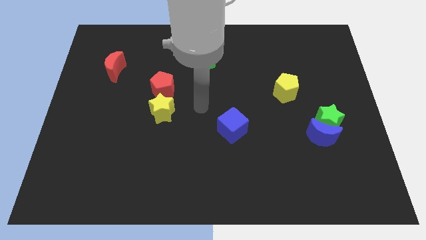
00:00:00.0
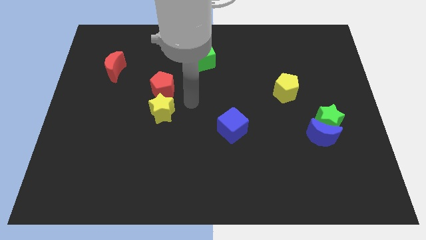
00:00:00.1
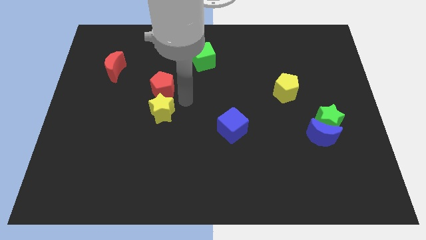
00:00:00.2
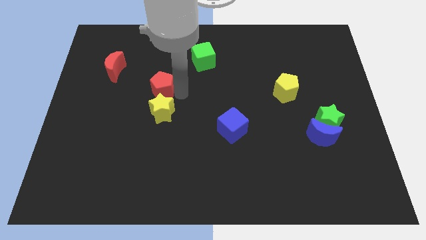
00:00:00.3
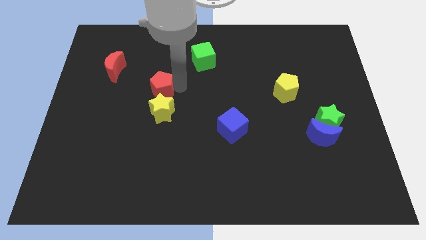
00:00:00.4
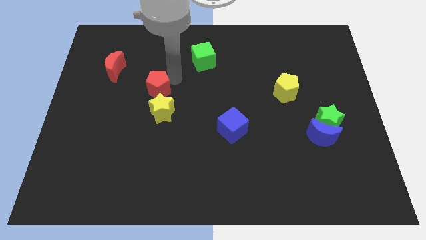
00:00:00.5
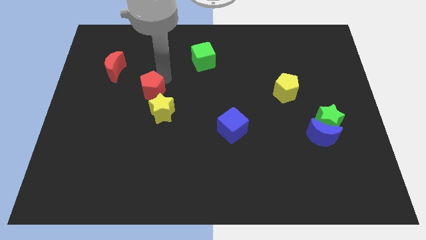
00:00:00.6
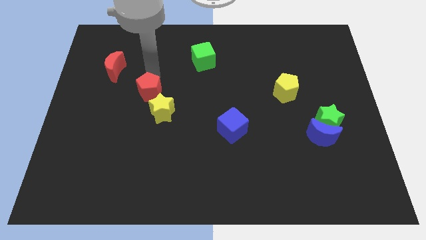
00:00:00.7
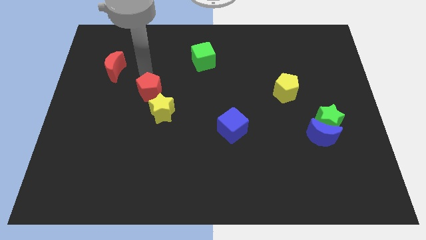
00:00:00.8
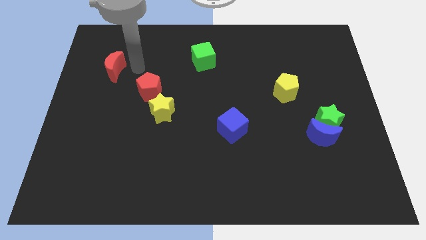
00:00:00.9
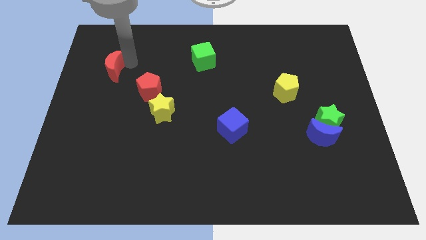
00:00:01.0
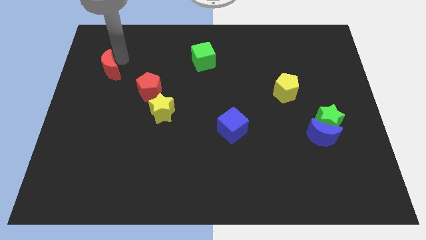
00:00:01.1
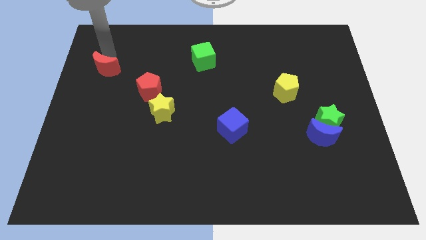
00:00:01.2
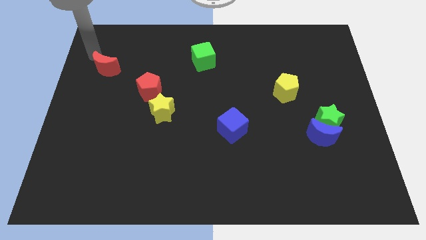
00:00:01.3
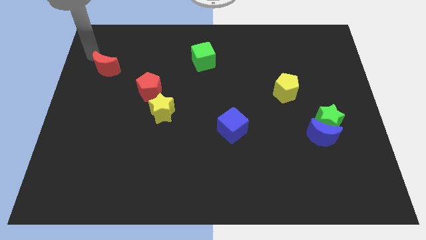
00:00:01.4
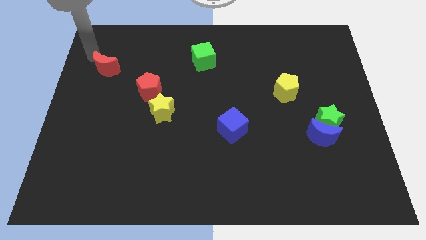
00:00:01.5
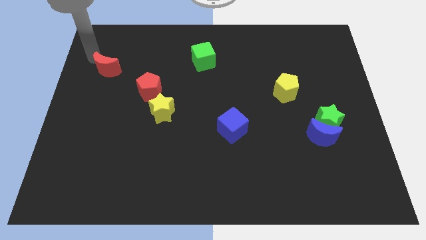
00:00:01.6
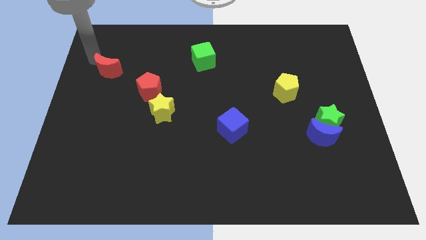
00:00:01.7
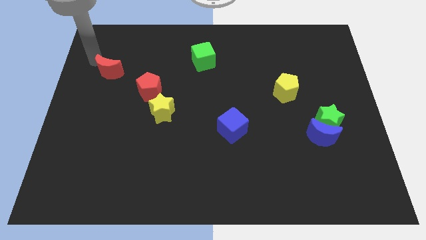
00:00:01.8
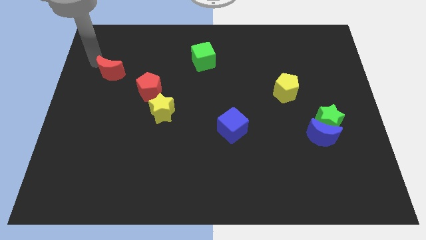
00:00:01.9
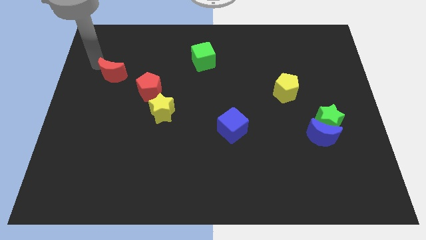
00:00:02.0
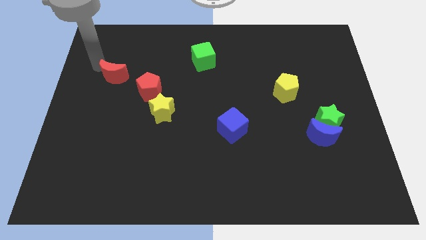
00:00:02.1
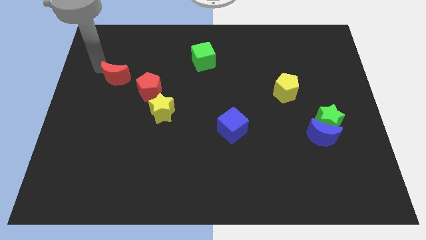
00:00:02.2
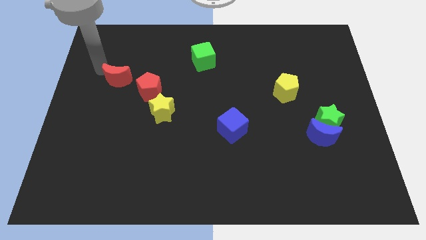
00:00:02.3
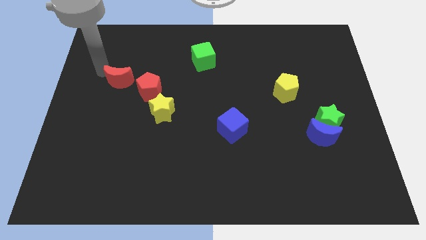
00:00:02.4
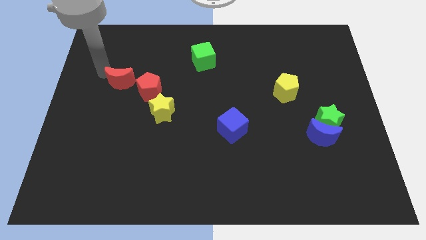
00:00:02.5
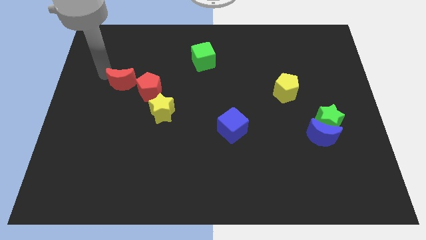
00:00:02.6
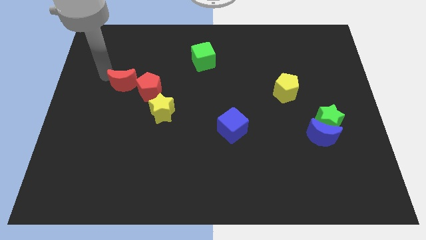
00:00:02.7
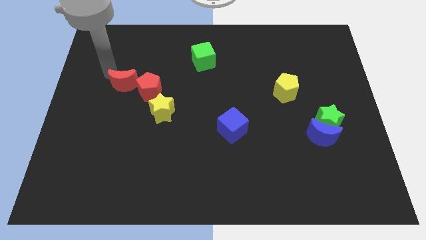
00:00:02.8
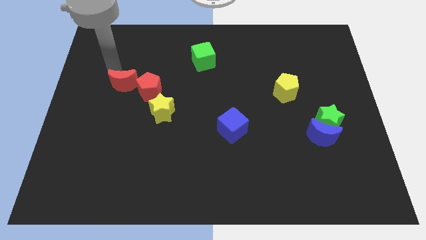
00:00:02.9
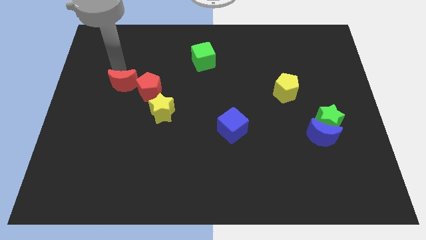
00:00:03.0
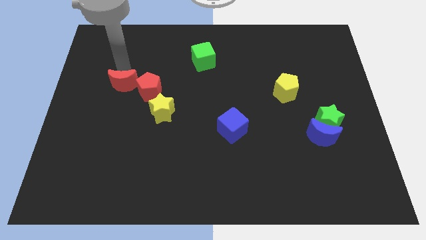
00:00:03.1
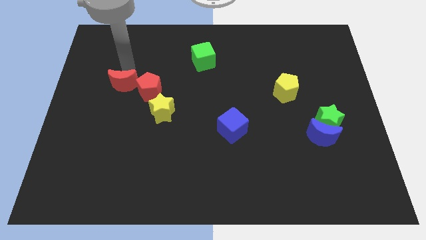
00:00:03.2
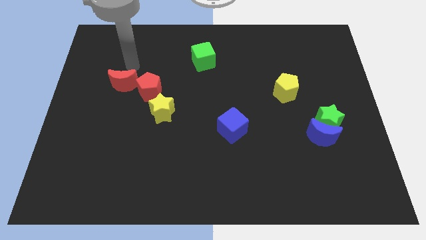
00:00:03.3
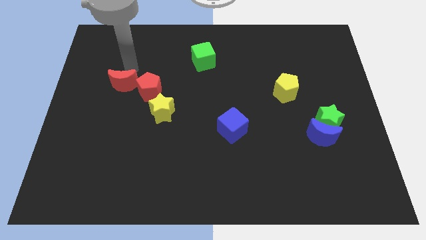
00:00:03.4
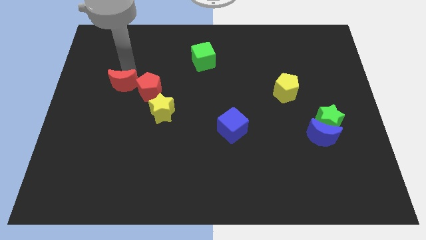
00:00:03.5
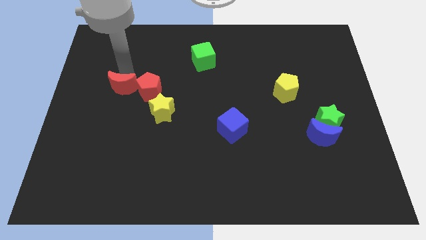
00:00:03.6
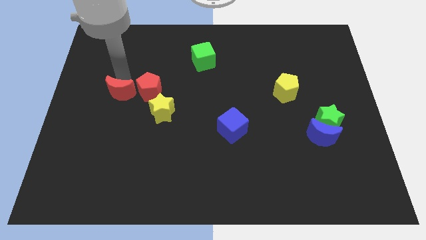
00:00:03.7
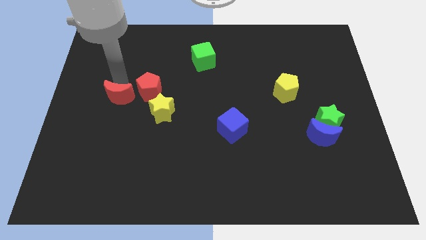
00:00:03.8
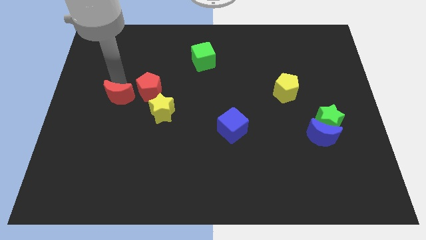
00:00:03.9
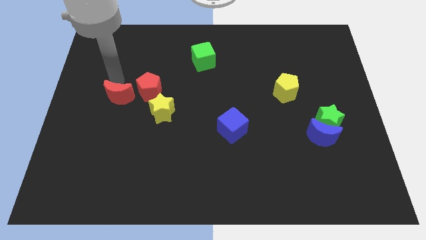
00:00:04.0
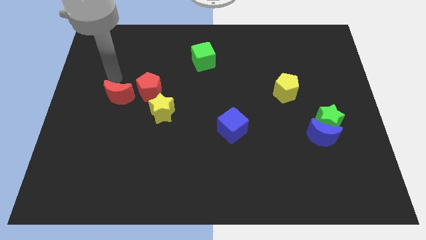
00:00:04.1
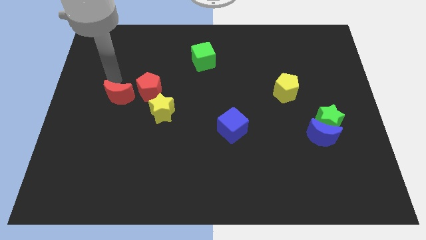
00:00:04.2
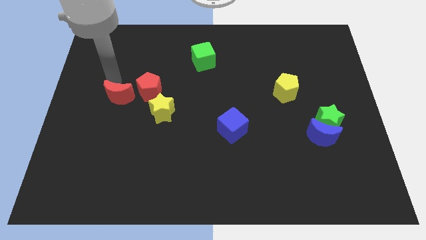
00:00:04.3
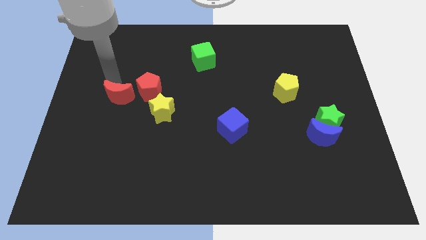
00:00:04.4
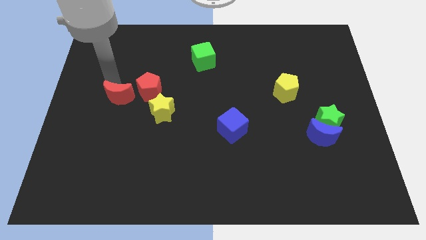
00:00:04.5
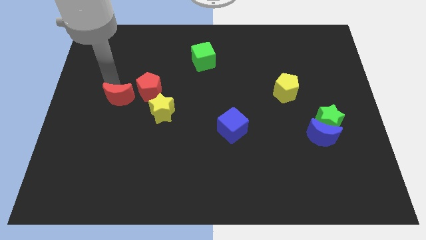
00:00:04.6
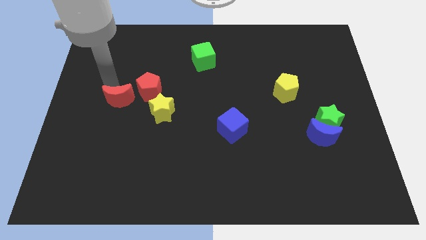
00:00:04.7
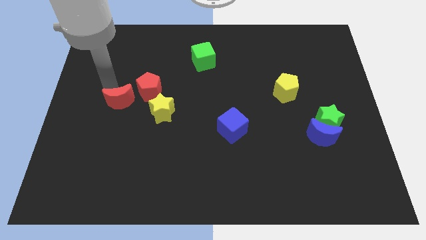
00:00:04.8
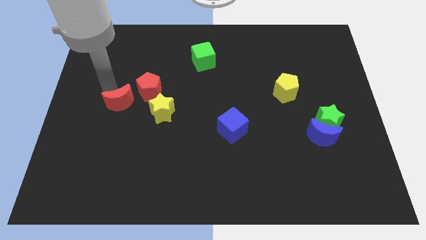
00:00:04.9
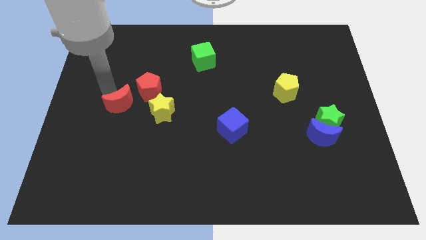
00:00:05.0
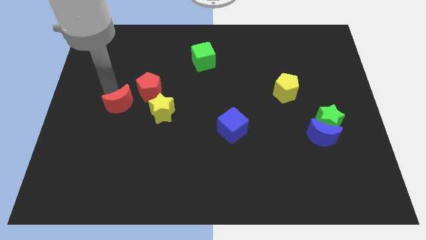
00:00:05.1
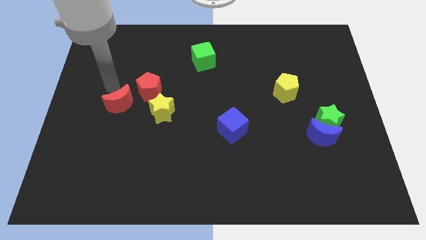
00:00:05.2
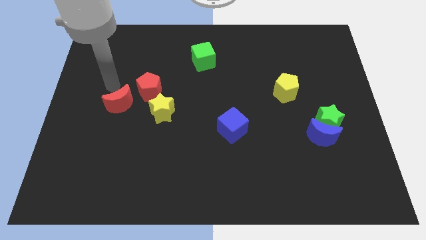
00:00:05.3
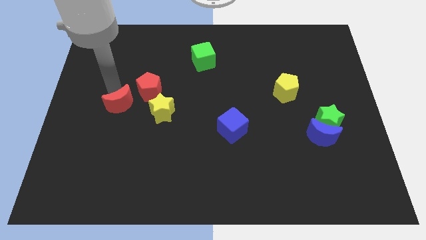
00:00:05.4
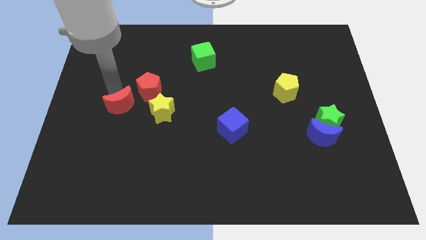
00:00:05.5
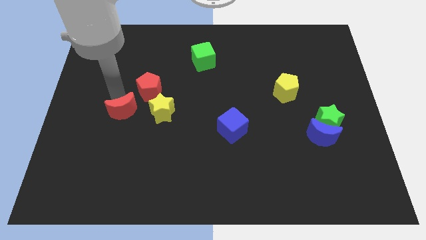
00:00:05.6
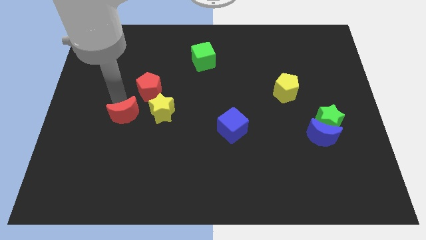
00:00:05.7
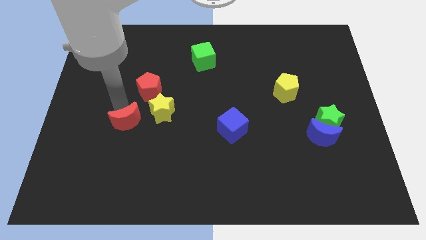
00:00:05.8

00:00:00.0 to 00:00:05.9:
push the red moon to the bottom left of the yellow star

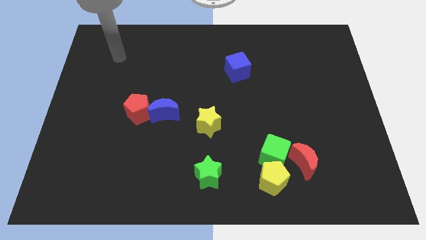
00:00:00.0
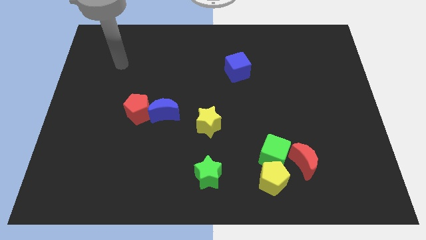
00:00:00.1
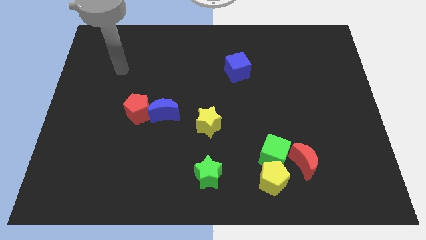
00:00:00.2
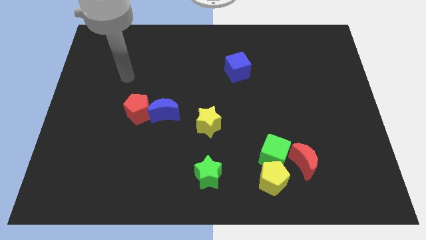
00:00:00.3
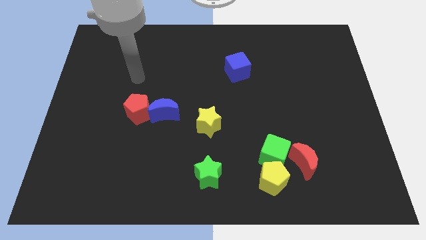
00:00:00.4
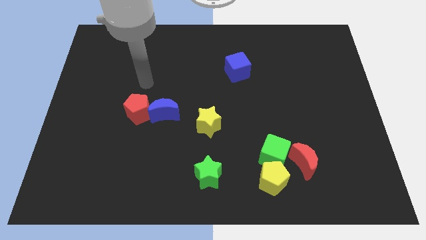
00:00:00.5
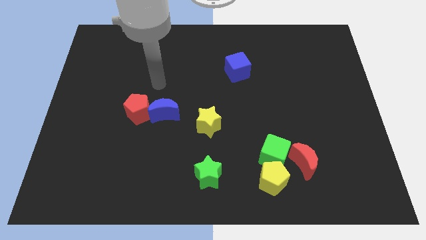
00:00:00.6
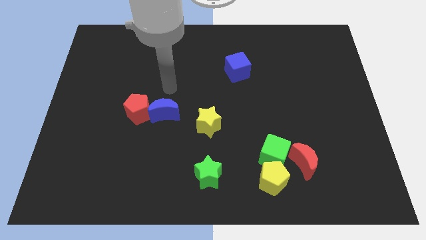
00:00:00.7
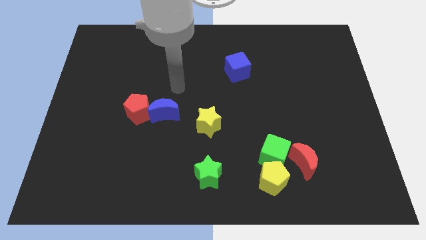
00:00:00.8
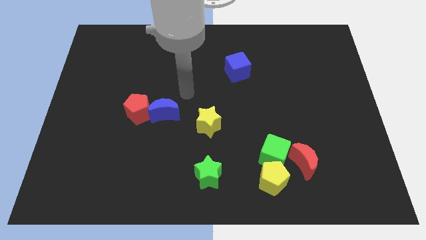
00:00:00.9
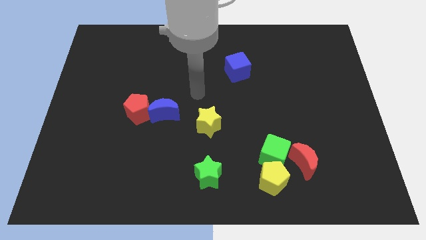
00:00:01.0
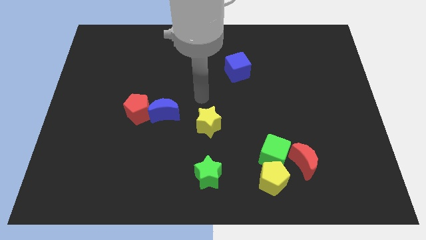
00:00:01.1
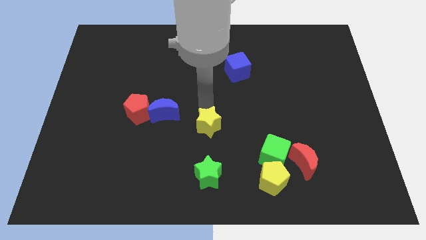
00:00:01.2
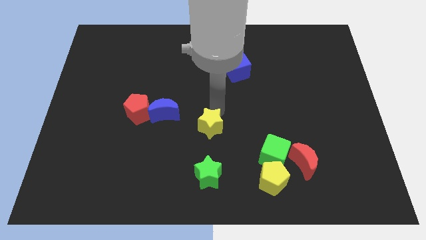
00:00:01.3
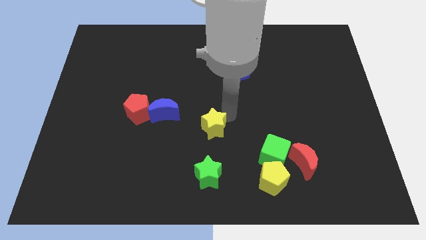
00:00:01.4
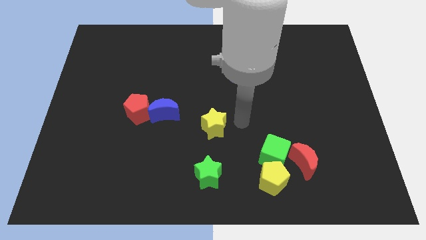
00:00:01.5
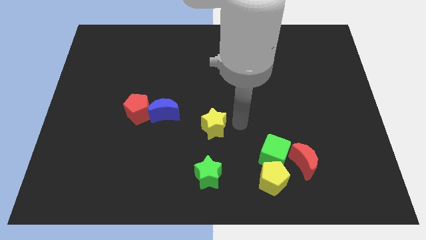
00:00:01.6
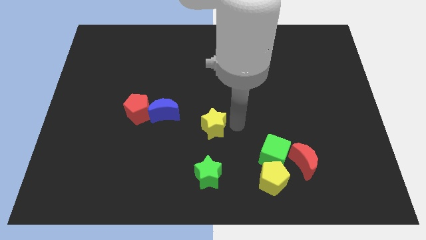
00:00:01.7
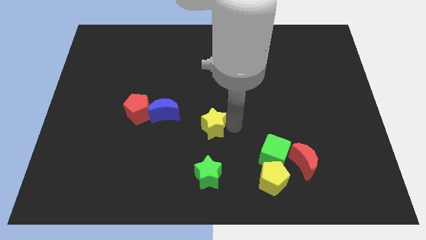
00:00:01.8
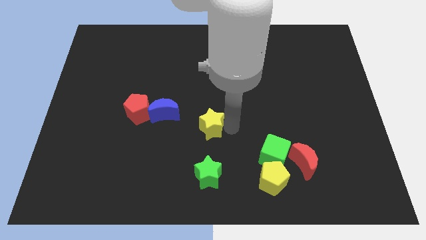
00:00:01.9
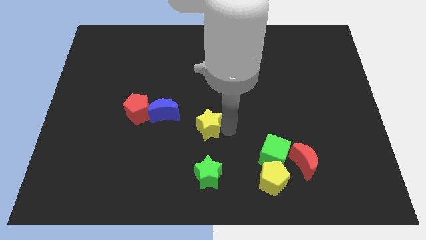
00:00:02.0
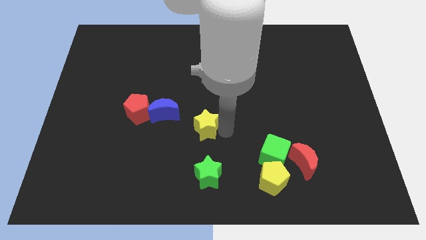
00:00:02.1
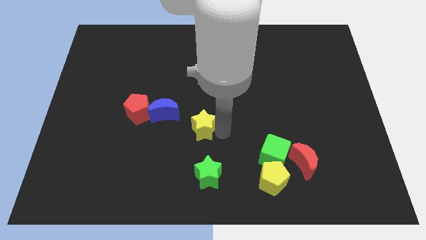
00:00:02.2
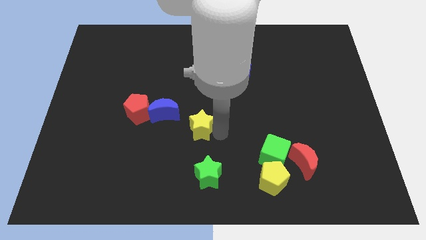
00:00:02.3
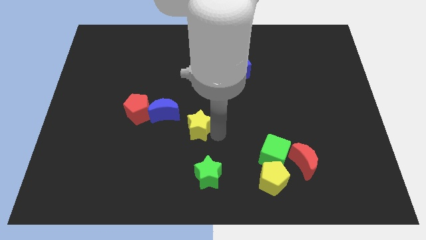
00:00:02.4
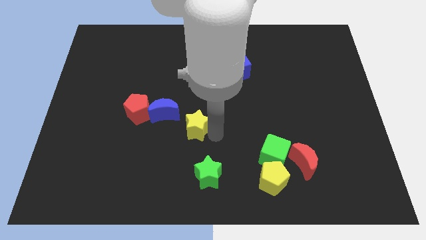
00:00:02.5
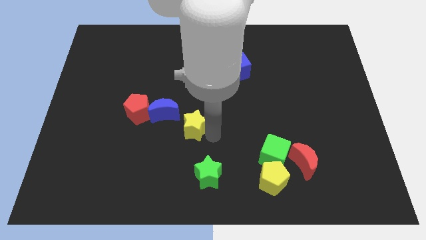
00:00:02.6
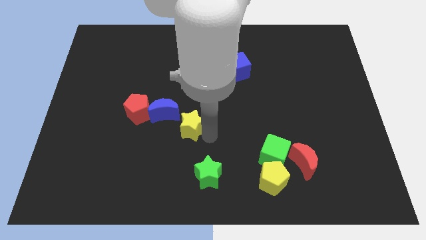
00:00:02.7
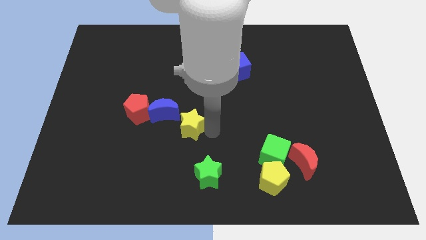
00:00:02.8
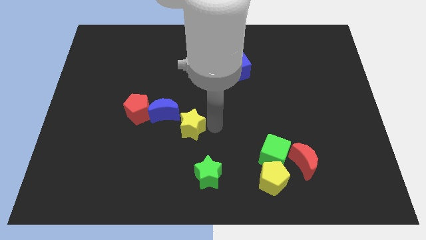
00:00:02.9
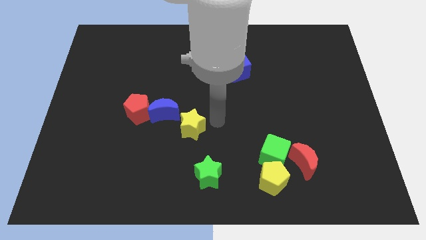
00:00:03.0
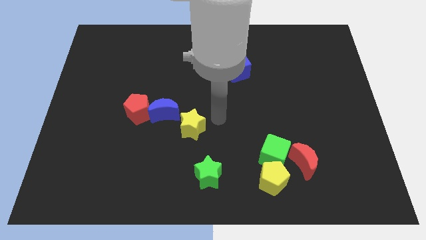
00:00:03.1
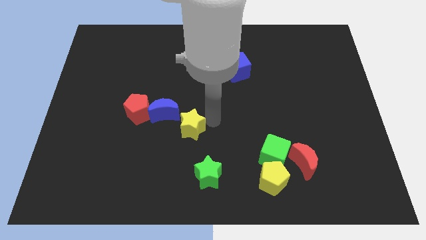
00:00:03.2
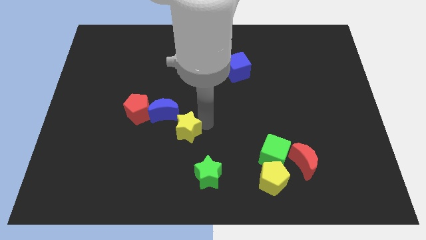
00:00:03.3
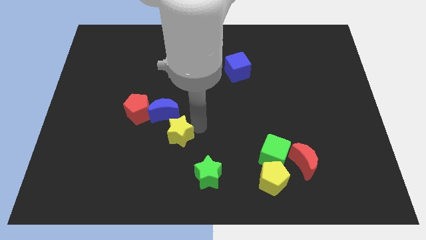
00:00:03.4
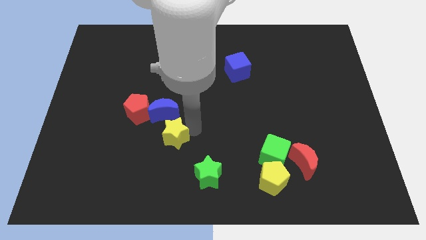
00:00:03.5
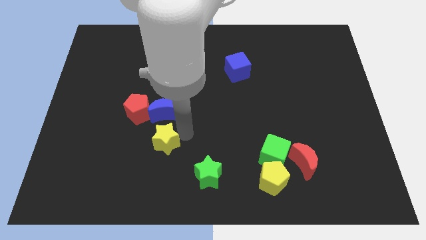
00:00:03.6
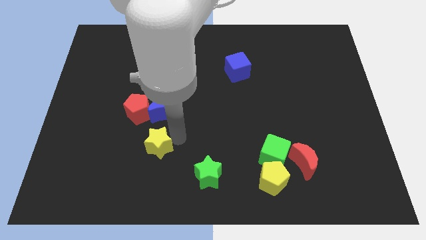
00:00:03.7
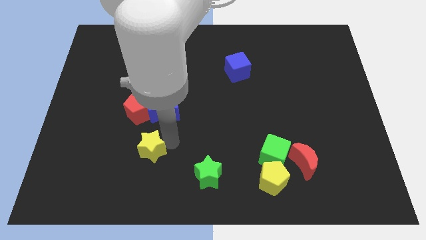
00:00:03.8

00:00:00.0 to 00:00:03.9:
move the yellow star to the bottom side of the red pentagon
